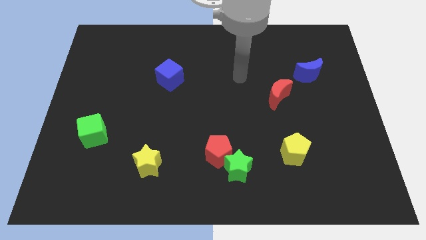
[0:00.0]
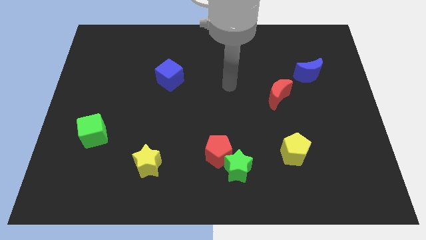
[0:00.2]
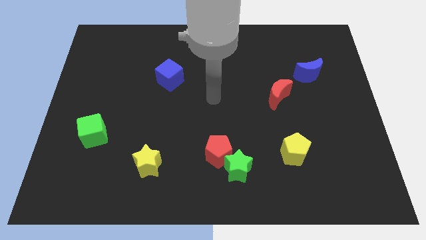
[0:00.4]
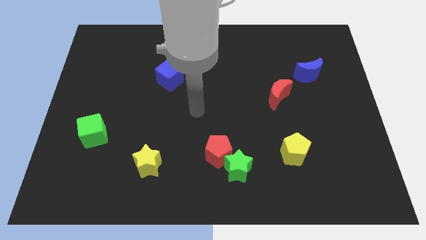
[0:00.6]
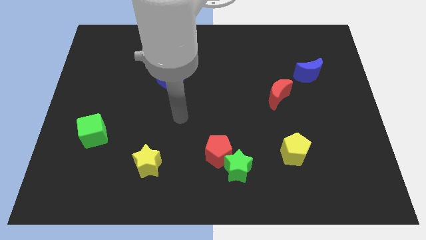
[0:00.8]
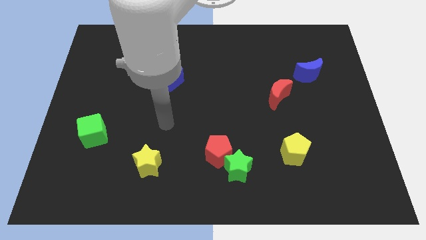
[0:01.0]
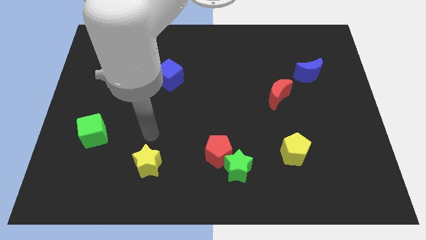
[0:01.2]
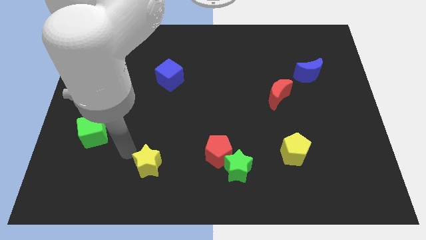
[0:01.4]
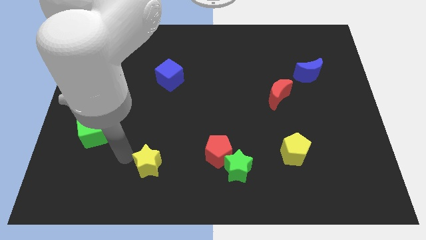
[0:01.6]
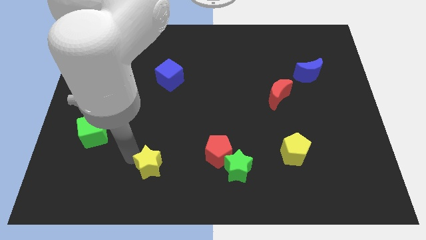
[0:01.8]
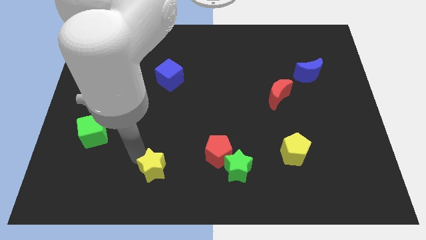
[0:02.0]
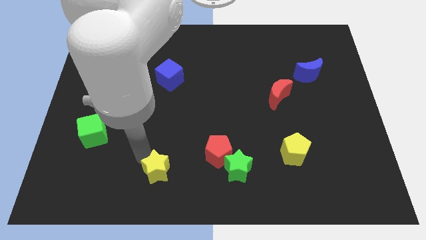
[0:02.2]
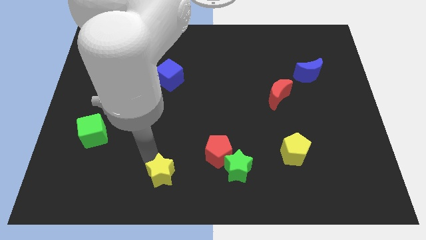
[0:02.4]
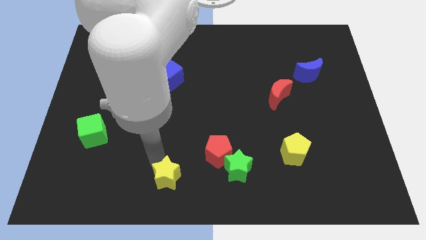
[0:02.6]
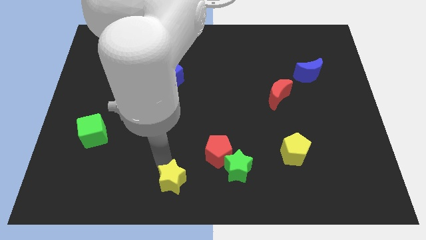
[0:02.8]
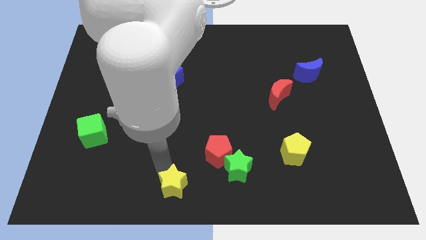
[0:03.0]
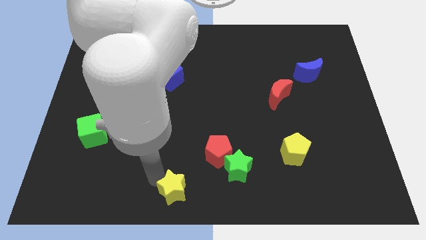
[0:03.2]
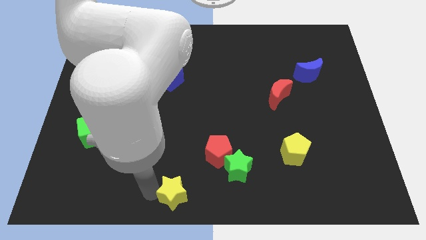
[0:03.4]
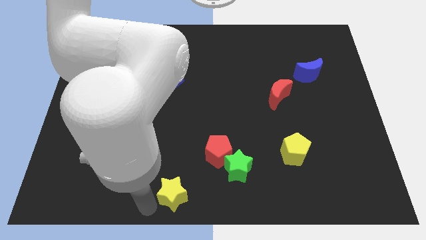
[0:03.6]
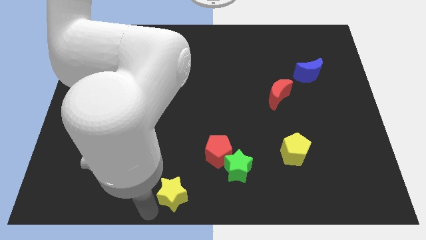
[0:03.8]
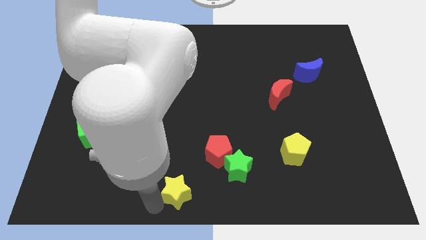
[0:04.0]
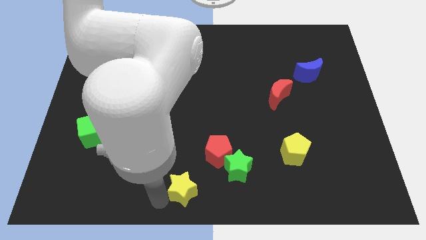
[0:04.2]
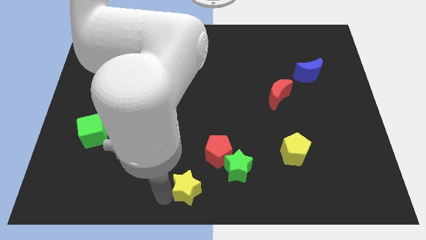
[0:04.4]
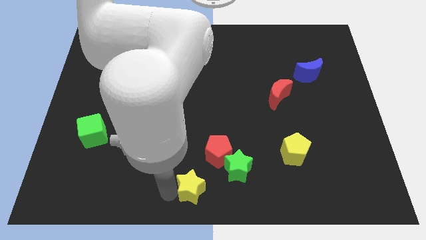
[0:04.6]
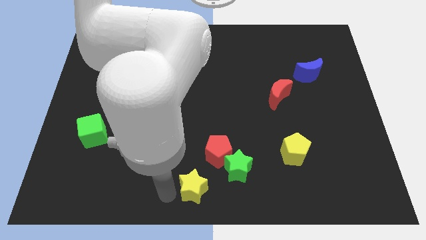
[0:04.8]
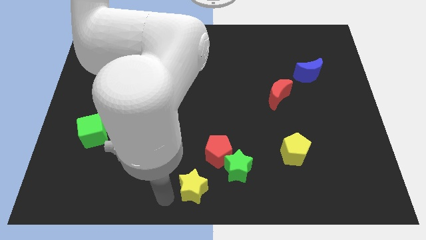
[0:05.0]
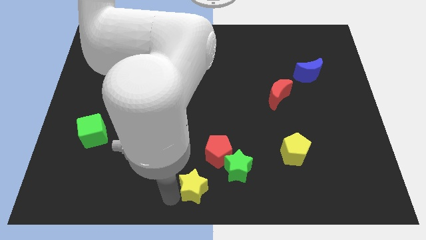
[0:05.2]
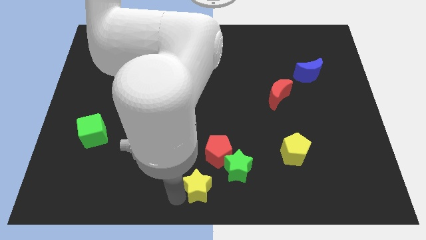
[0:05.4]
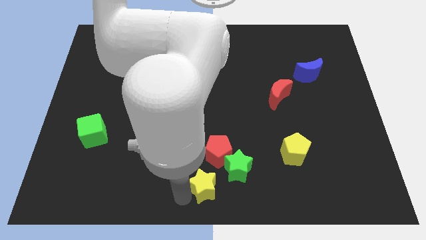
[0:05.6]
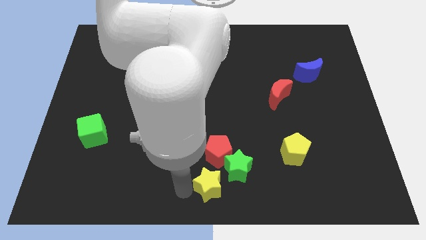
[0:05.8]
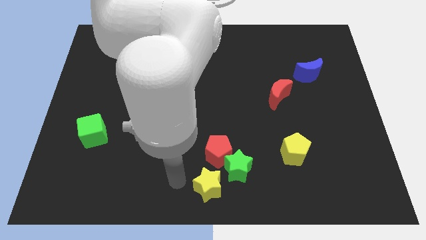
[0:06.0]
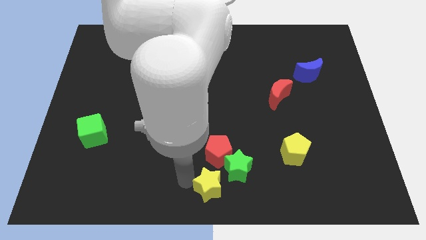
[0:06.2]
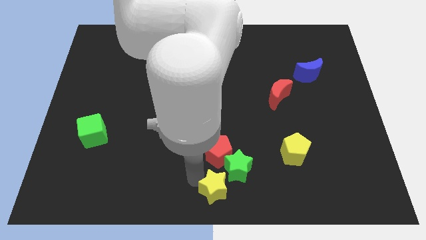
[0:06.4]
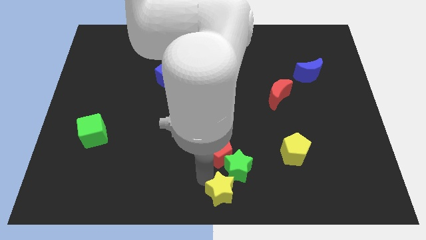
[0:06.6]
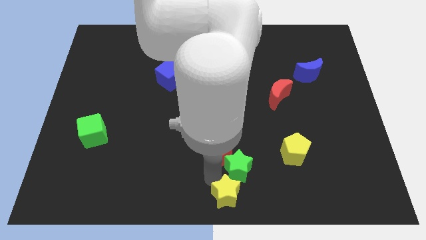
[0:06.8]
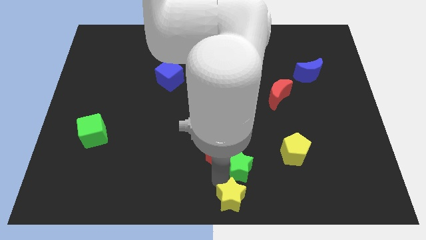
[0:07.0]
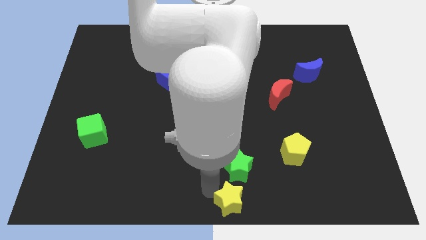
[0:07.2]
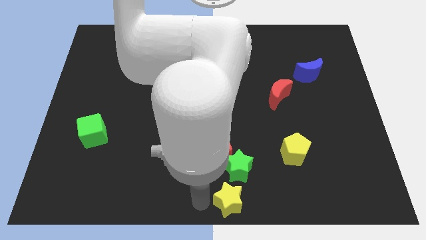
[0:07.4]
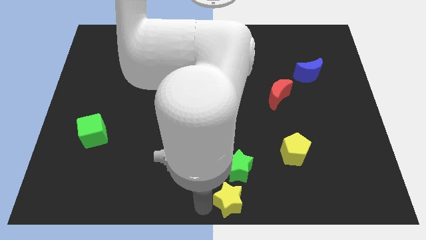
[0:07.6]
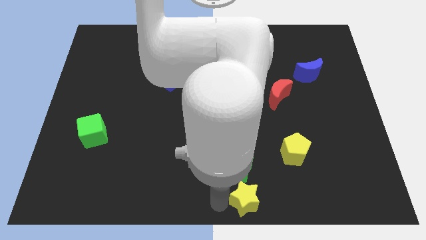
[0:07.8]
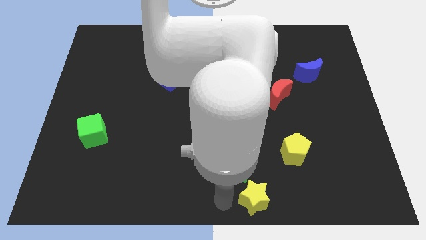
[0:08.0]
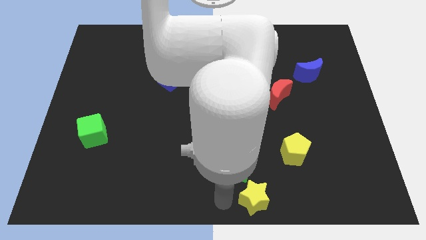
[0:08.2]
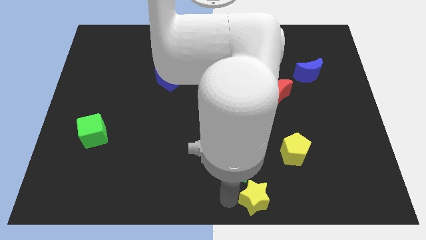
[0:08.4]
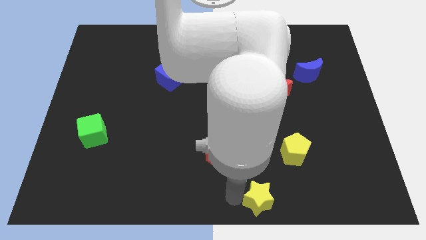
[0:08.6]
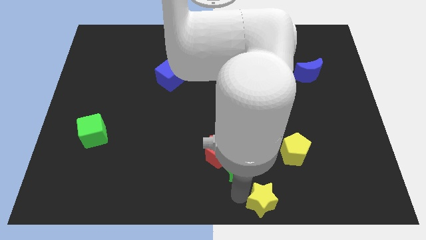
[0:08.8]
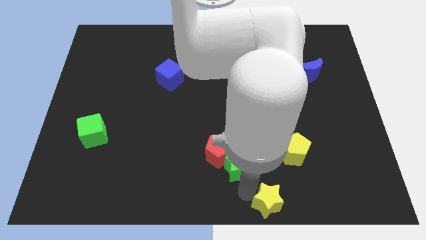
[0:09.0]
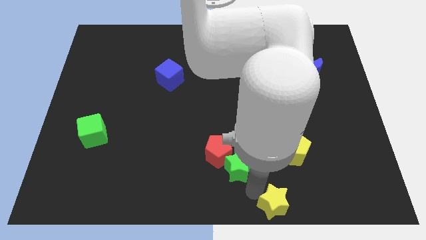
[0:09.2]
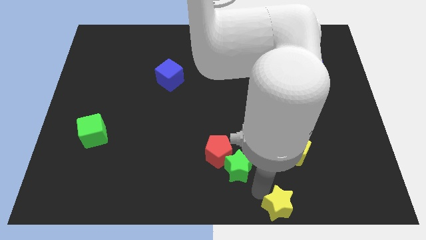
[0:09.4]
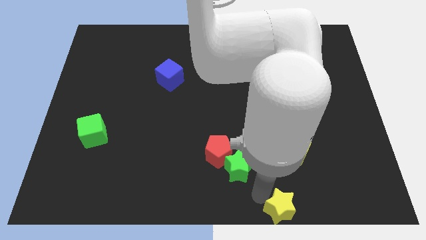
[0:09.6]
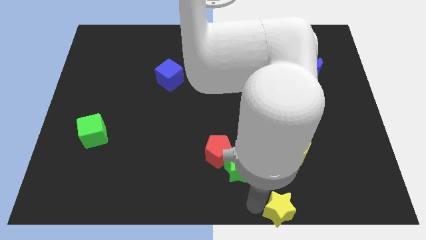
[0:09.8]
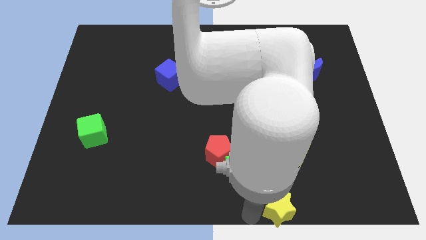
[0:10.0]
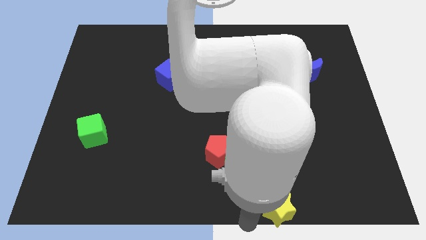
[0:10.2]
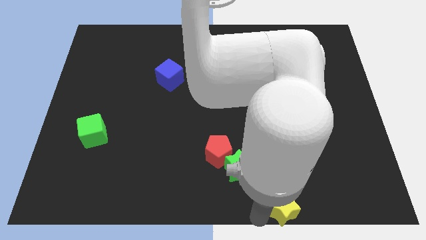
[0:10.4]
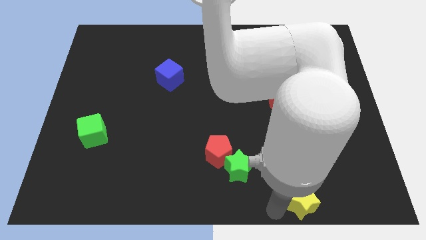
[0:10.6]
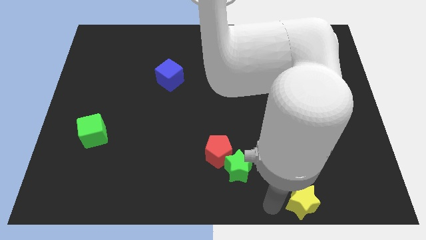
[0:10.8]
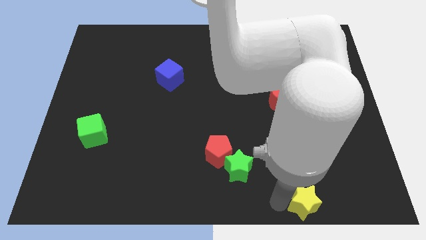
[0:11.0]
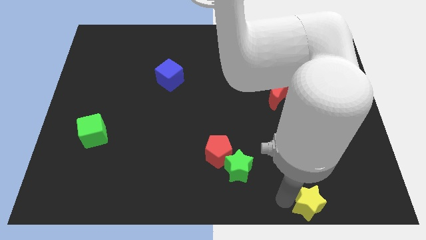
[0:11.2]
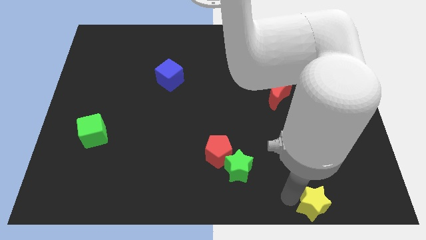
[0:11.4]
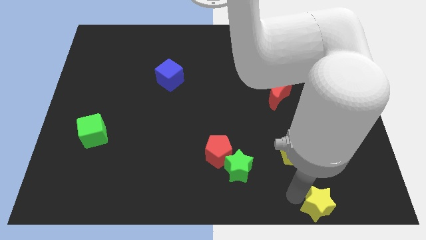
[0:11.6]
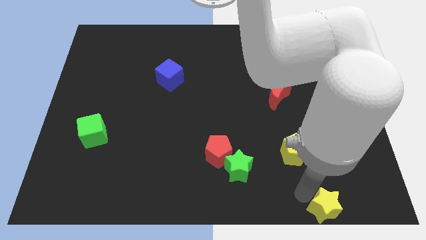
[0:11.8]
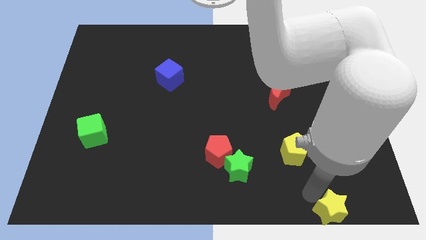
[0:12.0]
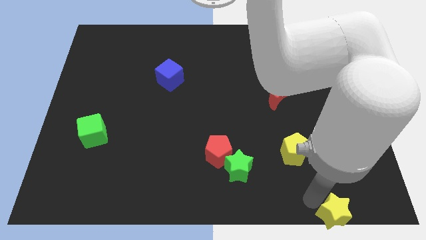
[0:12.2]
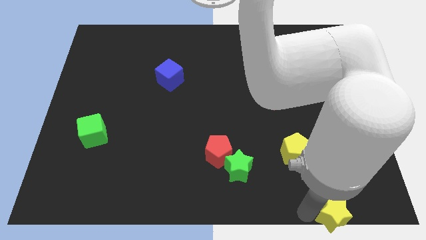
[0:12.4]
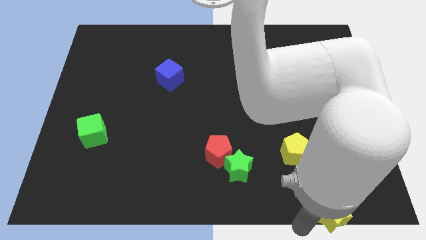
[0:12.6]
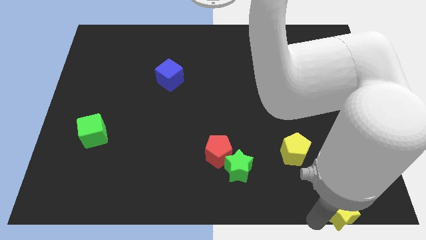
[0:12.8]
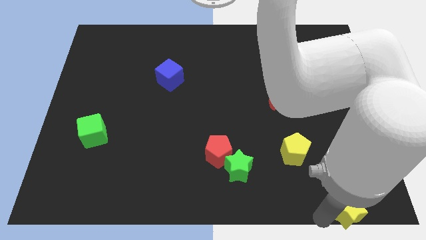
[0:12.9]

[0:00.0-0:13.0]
move the yellow star to the bottom right of the board
